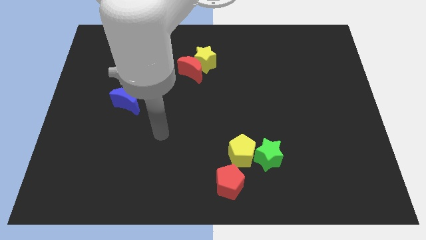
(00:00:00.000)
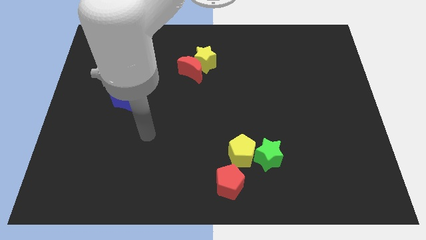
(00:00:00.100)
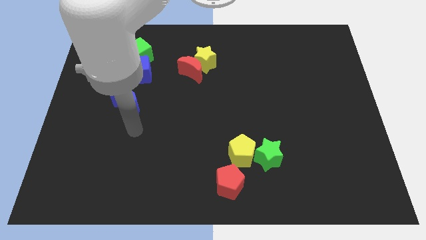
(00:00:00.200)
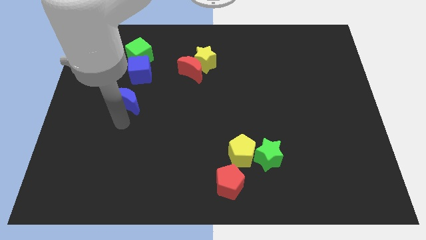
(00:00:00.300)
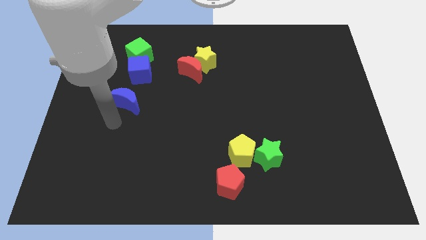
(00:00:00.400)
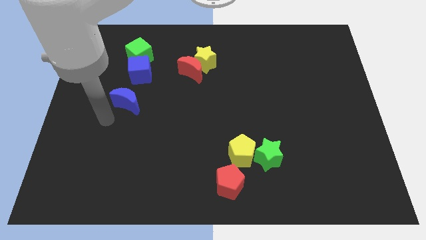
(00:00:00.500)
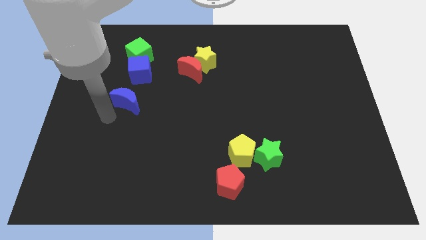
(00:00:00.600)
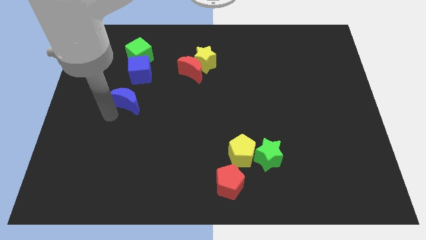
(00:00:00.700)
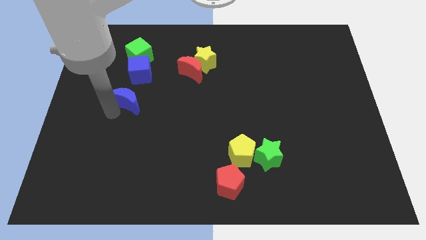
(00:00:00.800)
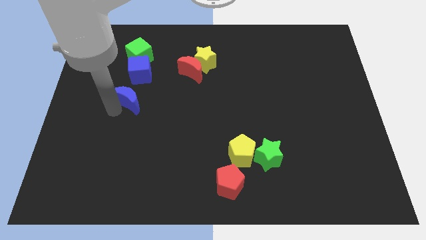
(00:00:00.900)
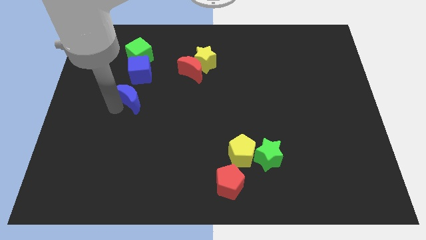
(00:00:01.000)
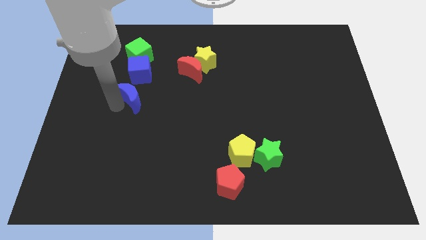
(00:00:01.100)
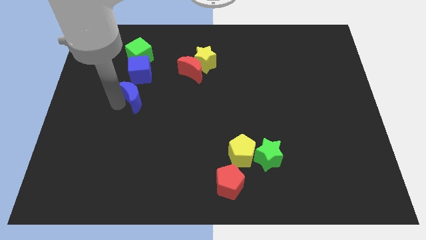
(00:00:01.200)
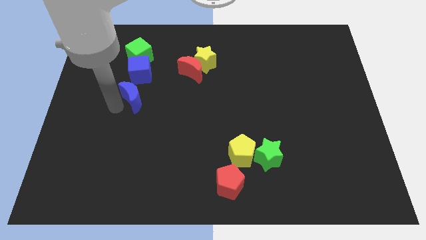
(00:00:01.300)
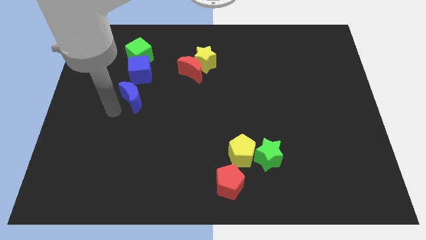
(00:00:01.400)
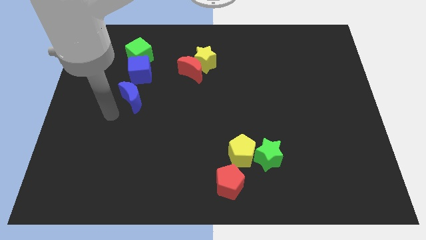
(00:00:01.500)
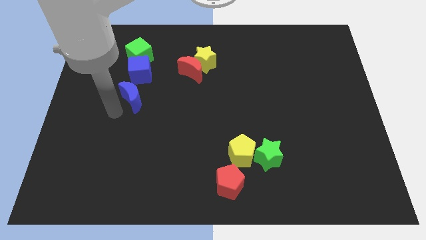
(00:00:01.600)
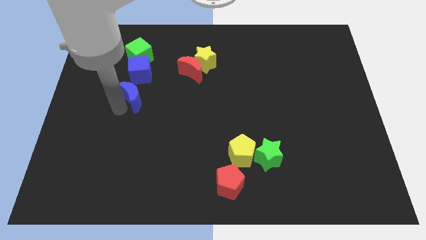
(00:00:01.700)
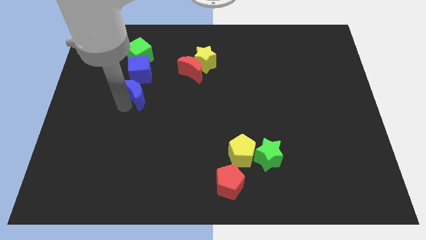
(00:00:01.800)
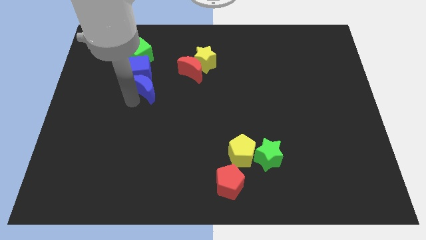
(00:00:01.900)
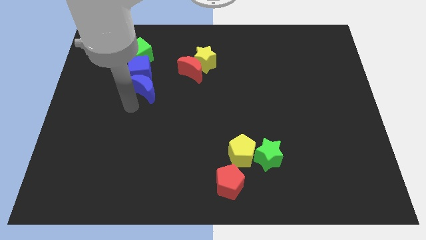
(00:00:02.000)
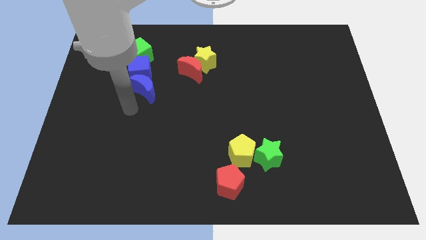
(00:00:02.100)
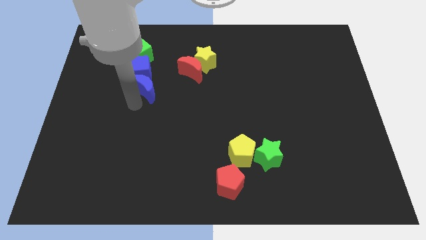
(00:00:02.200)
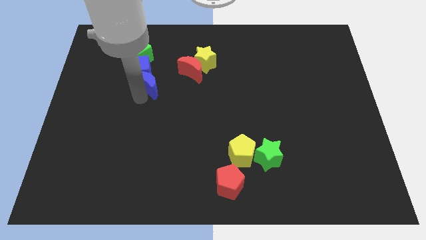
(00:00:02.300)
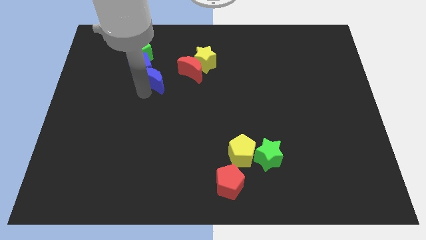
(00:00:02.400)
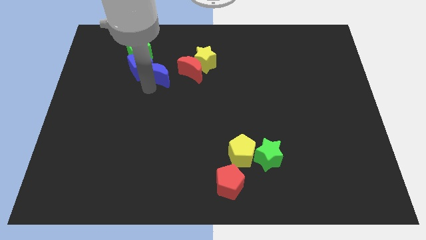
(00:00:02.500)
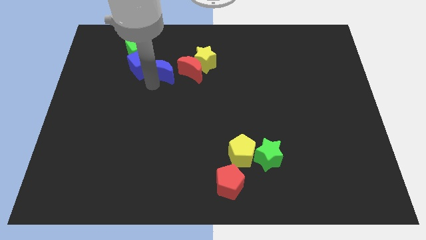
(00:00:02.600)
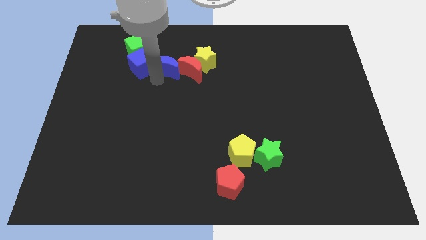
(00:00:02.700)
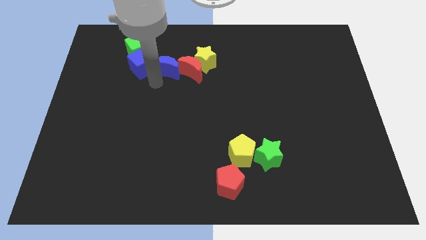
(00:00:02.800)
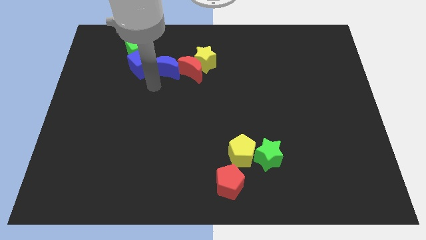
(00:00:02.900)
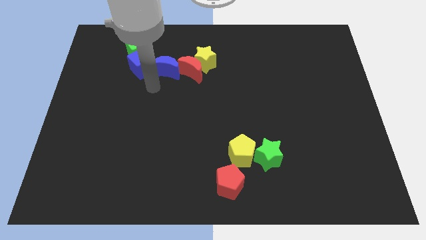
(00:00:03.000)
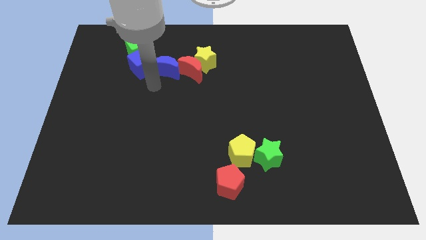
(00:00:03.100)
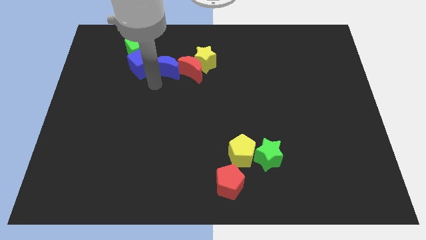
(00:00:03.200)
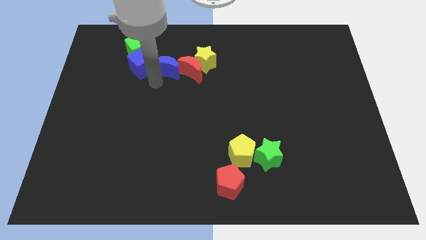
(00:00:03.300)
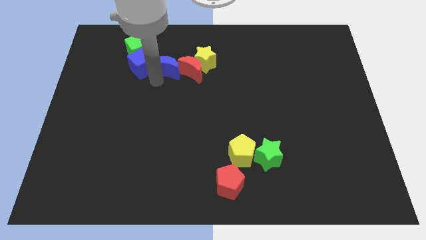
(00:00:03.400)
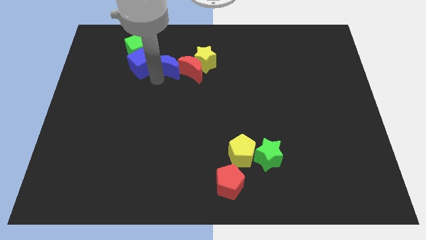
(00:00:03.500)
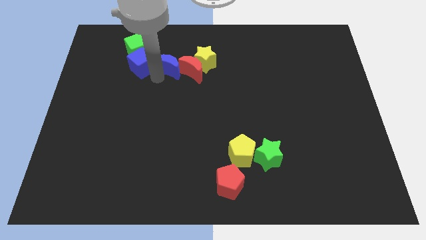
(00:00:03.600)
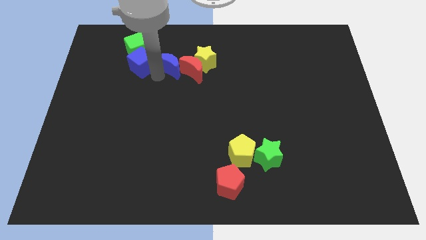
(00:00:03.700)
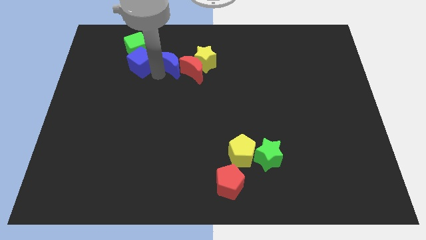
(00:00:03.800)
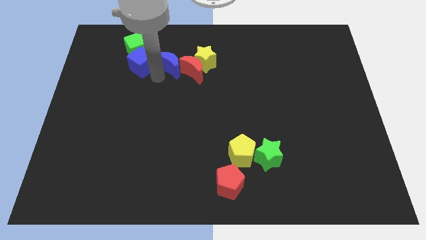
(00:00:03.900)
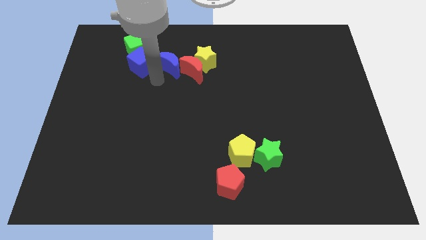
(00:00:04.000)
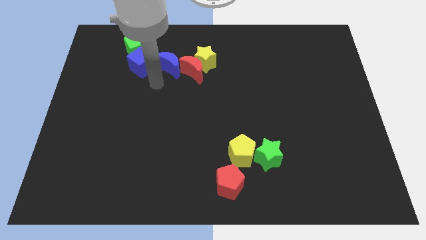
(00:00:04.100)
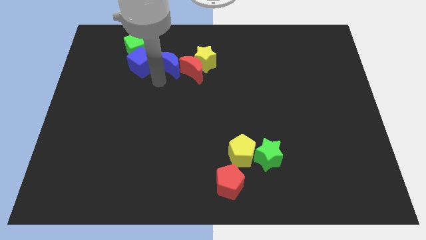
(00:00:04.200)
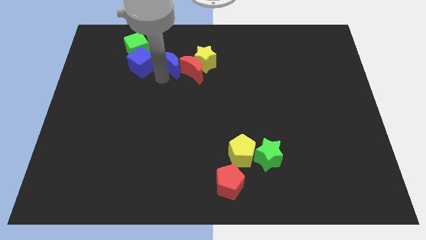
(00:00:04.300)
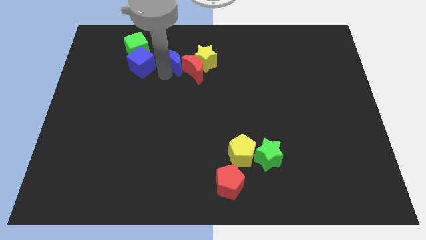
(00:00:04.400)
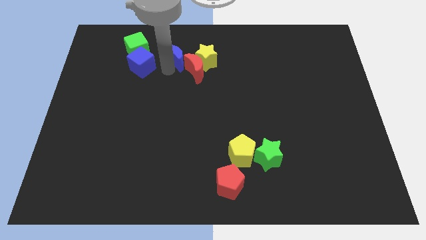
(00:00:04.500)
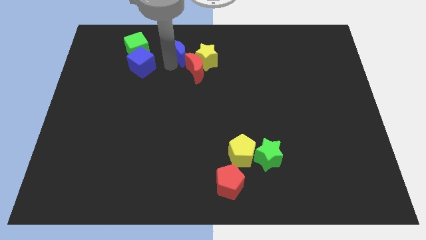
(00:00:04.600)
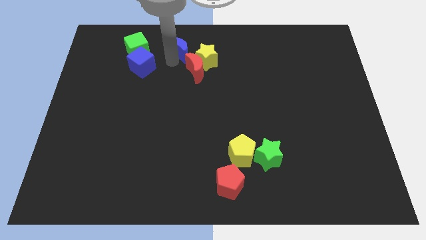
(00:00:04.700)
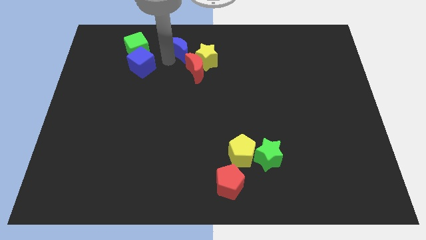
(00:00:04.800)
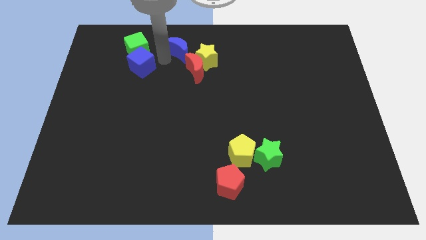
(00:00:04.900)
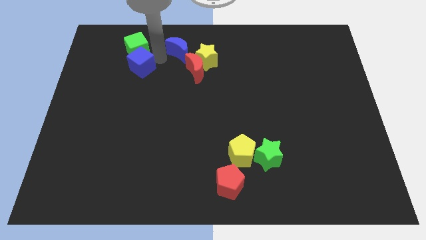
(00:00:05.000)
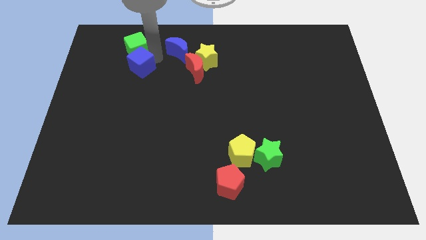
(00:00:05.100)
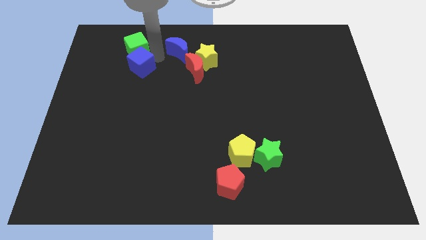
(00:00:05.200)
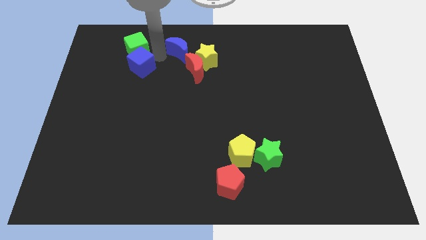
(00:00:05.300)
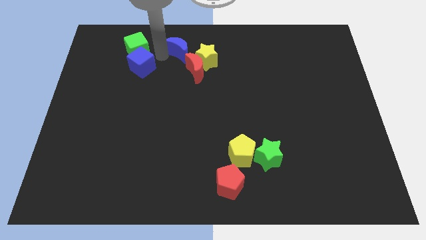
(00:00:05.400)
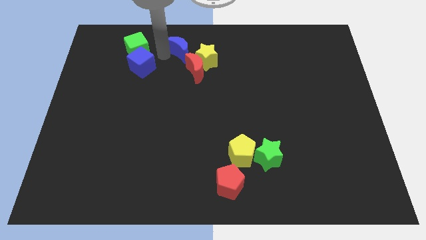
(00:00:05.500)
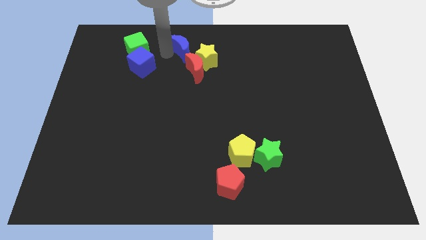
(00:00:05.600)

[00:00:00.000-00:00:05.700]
slide the blue moon to the towards your base
